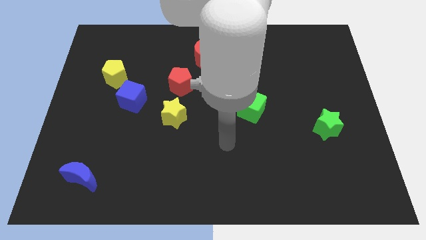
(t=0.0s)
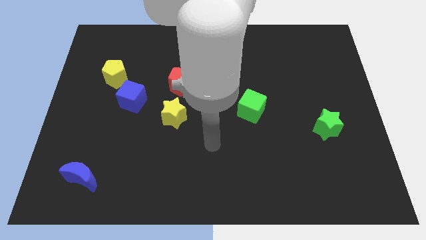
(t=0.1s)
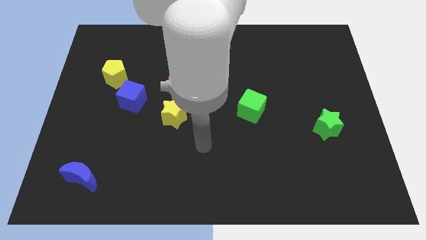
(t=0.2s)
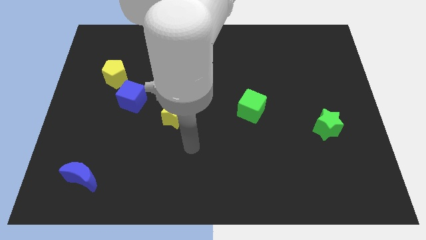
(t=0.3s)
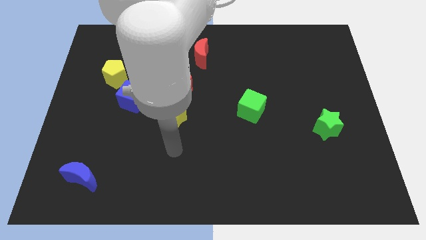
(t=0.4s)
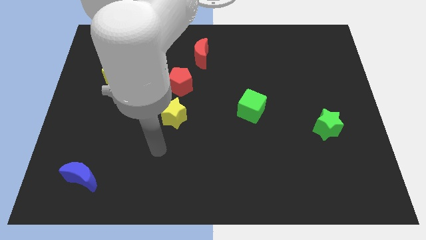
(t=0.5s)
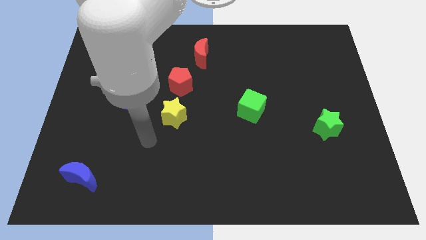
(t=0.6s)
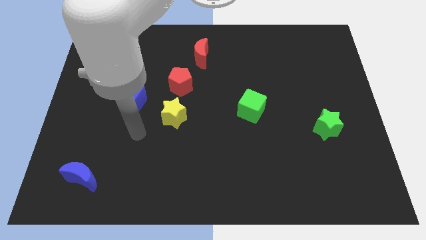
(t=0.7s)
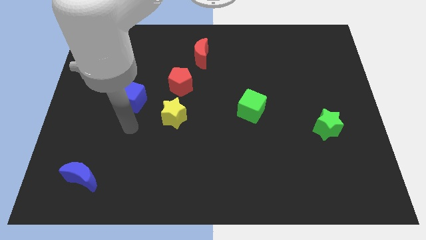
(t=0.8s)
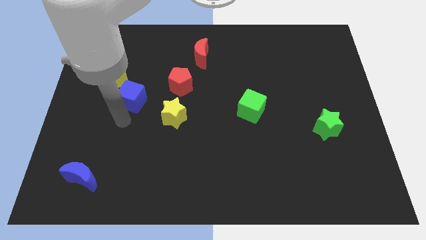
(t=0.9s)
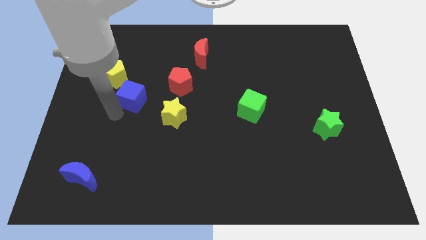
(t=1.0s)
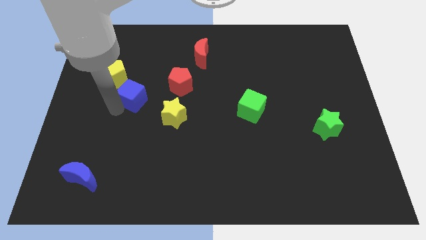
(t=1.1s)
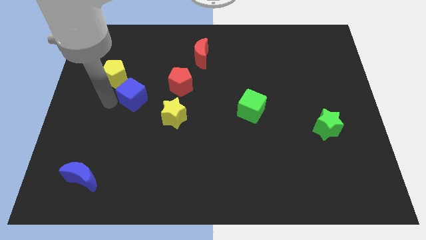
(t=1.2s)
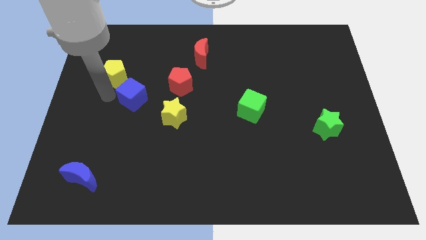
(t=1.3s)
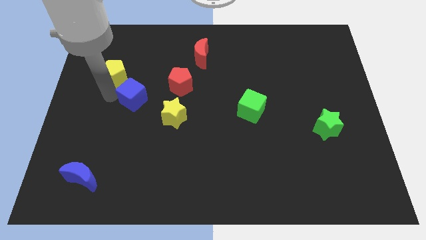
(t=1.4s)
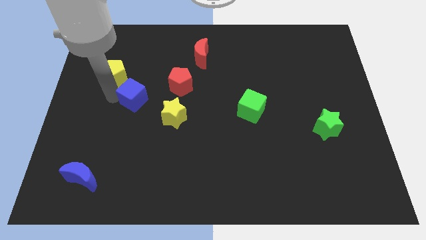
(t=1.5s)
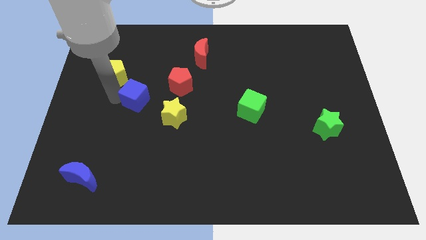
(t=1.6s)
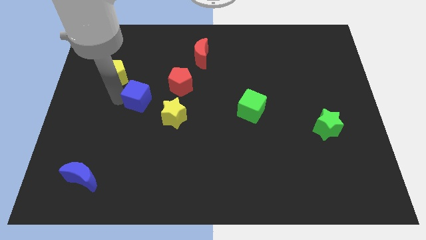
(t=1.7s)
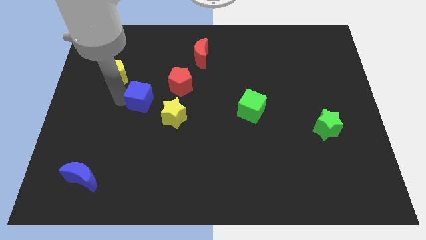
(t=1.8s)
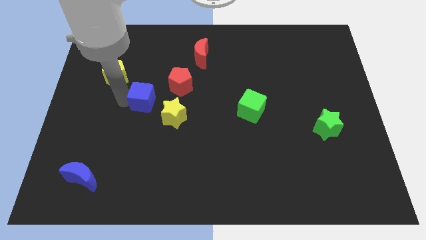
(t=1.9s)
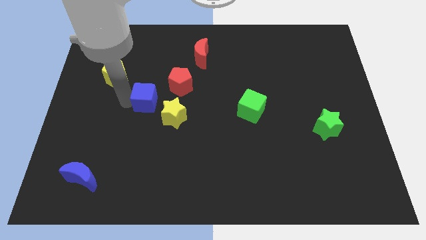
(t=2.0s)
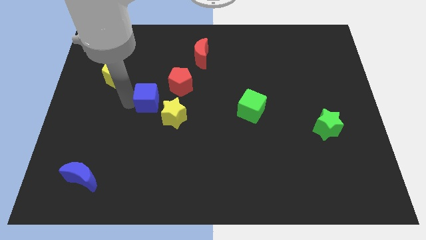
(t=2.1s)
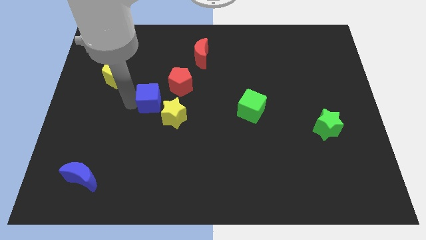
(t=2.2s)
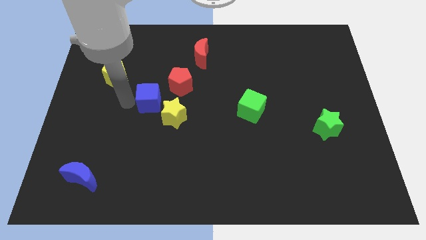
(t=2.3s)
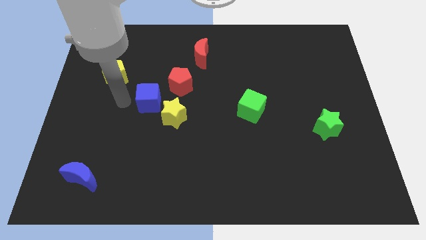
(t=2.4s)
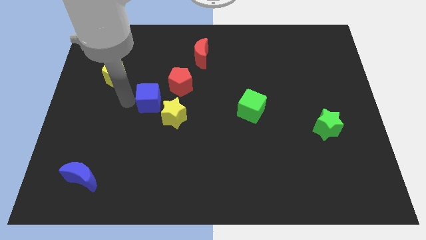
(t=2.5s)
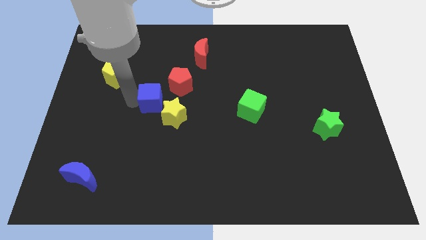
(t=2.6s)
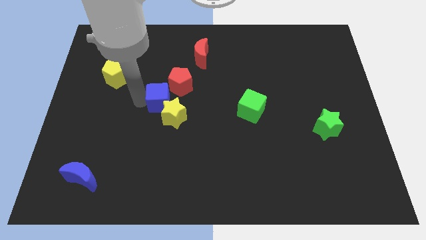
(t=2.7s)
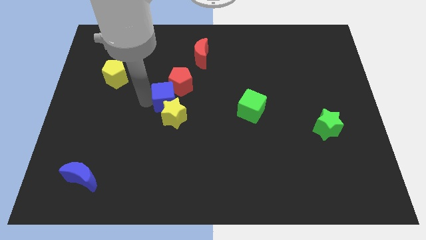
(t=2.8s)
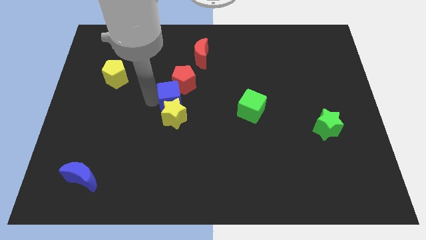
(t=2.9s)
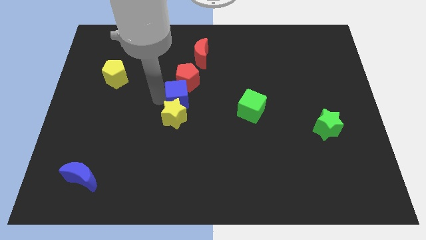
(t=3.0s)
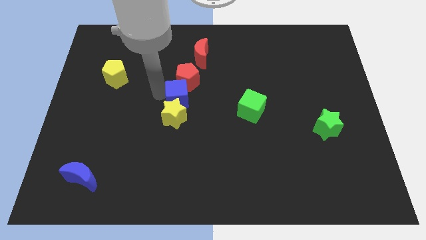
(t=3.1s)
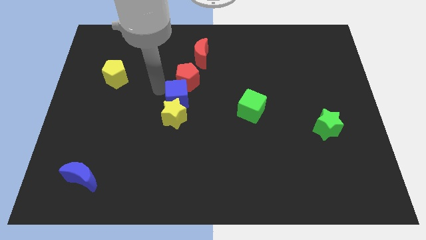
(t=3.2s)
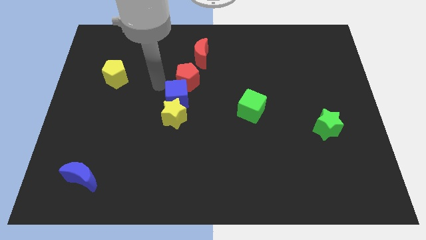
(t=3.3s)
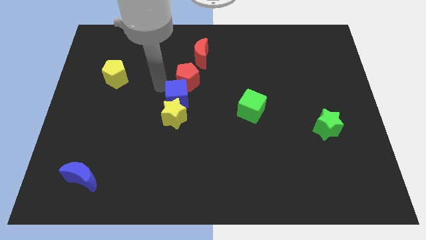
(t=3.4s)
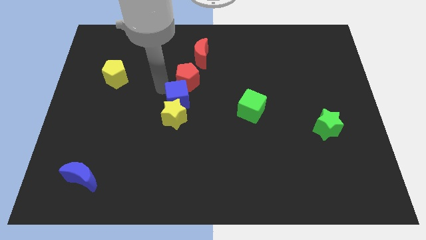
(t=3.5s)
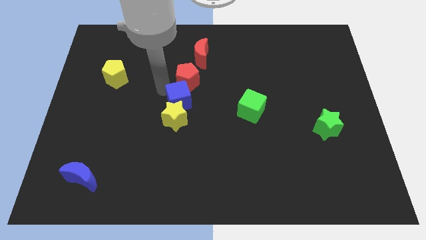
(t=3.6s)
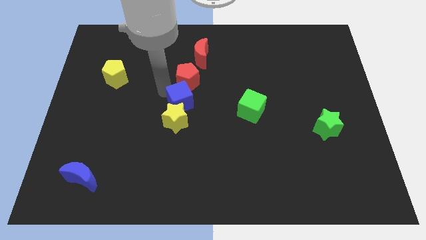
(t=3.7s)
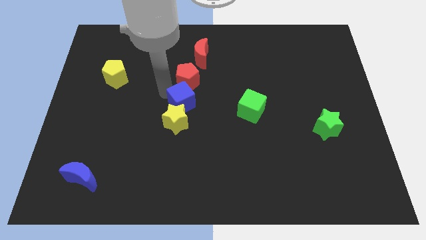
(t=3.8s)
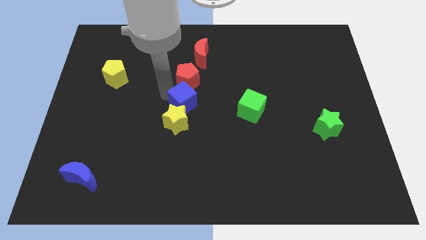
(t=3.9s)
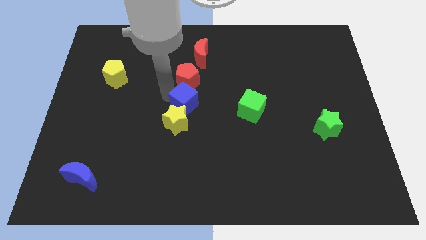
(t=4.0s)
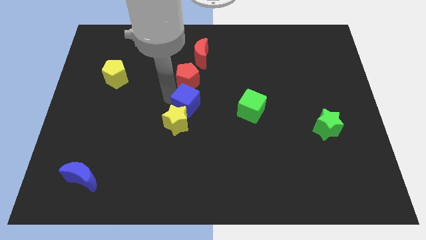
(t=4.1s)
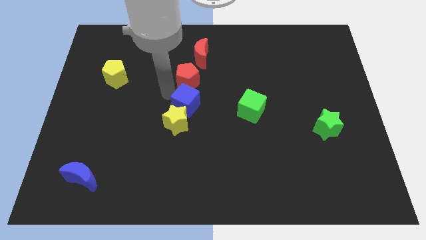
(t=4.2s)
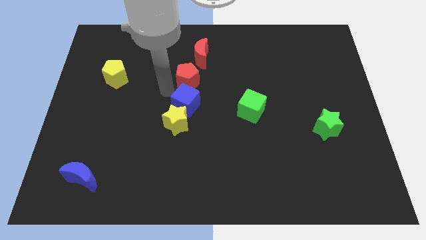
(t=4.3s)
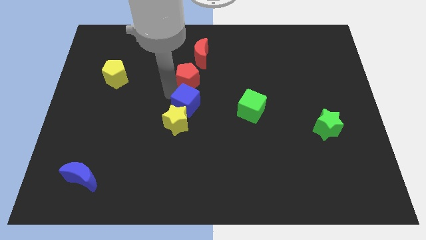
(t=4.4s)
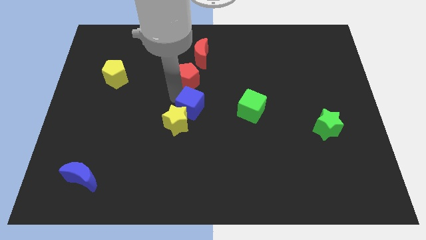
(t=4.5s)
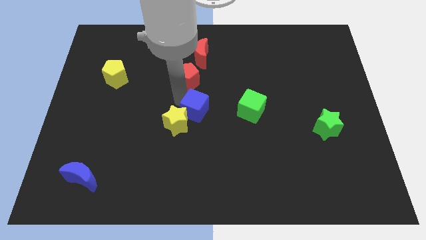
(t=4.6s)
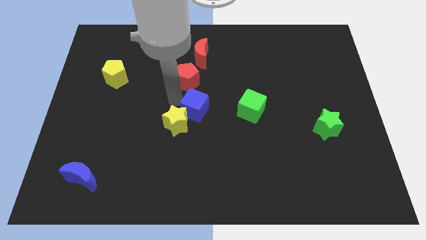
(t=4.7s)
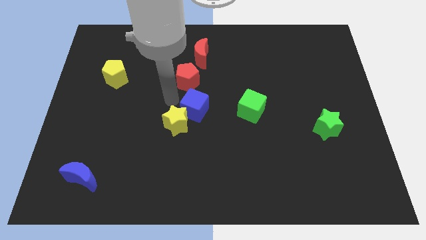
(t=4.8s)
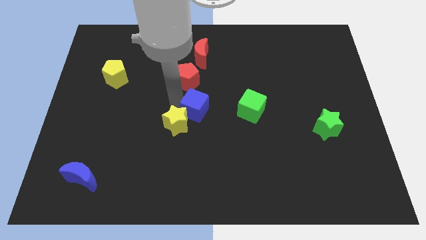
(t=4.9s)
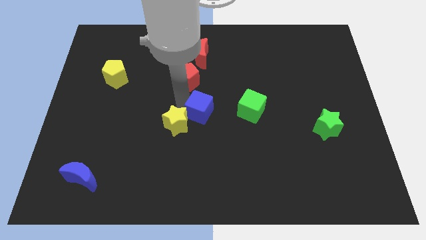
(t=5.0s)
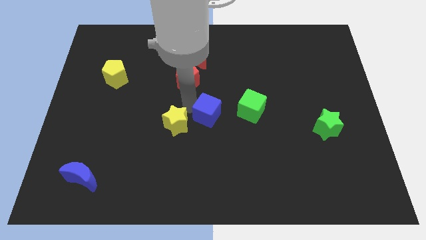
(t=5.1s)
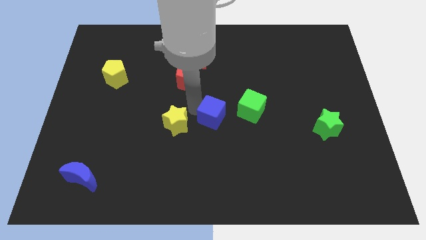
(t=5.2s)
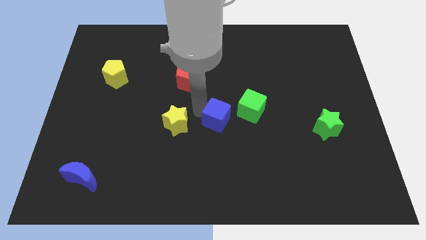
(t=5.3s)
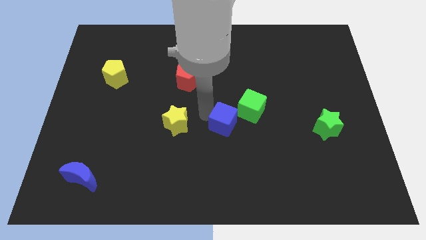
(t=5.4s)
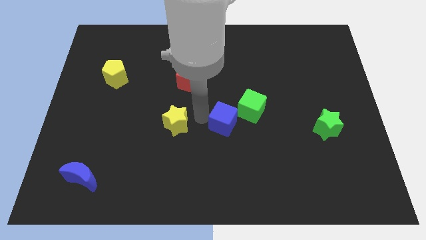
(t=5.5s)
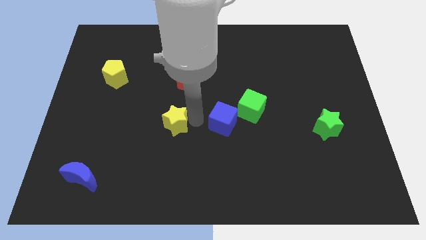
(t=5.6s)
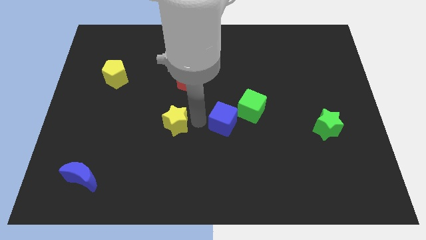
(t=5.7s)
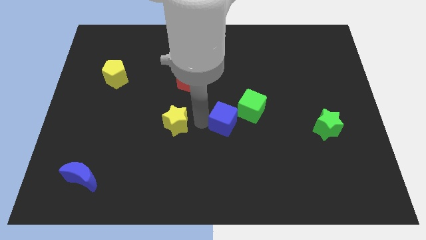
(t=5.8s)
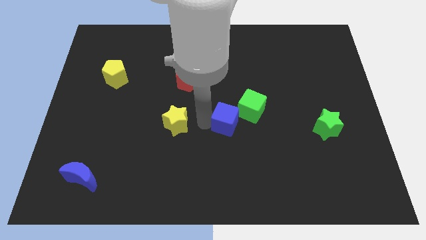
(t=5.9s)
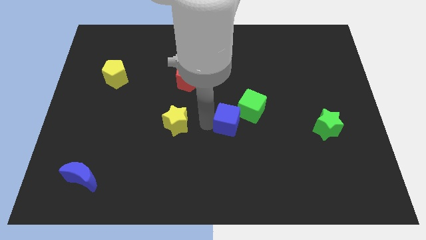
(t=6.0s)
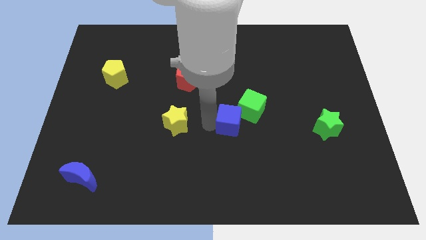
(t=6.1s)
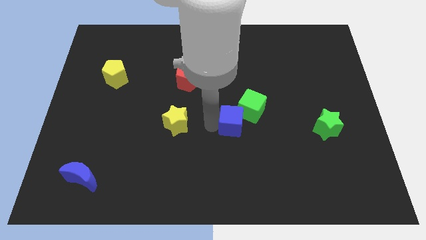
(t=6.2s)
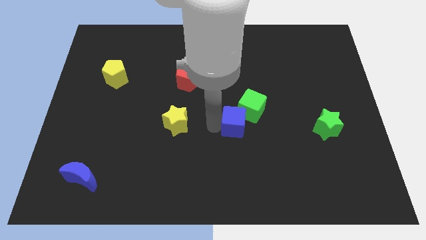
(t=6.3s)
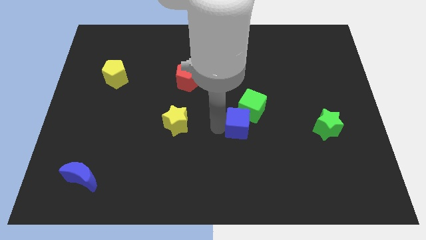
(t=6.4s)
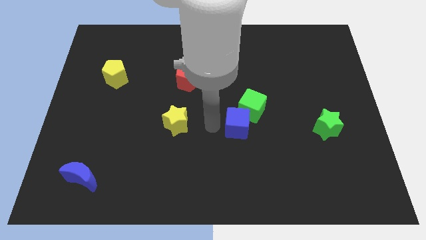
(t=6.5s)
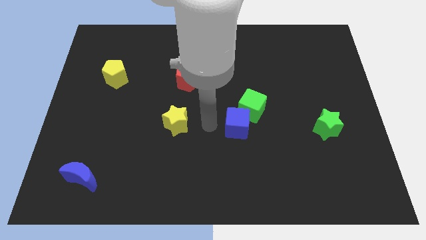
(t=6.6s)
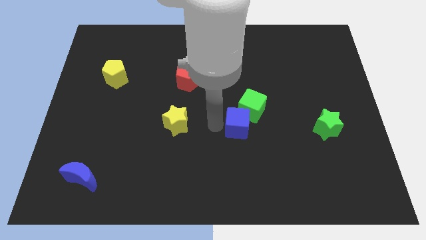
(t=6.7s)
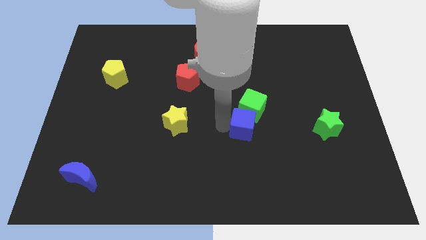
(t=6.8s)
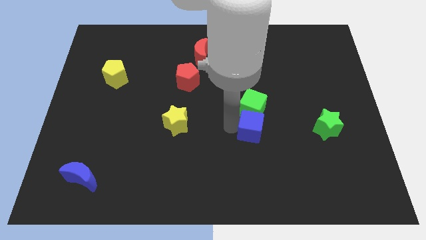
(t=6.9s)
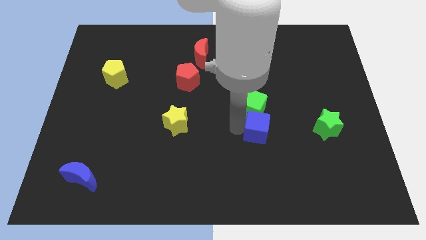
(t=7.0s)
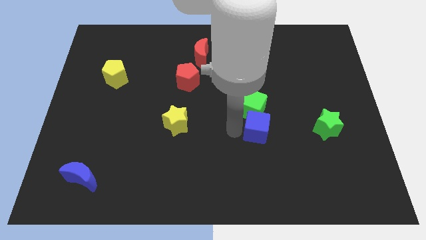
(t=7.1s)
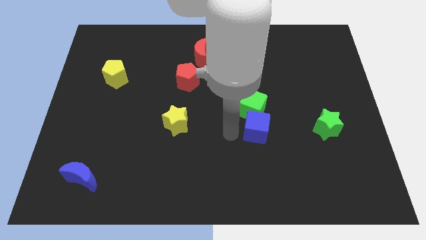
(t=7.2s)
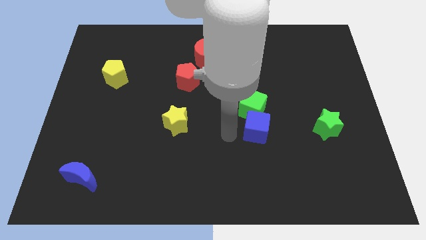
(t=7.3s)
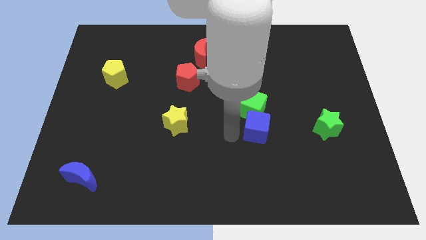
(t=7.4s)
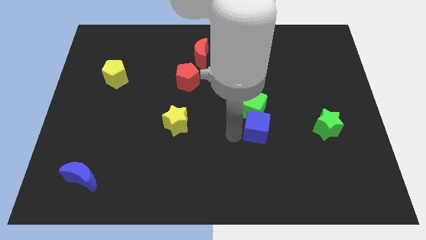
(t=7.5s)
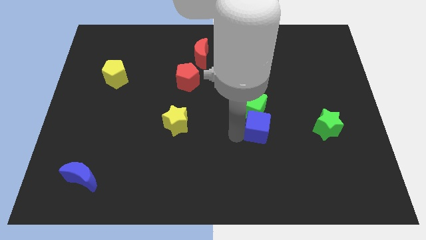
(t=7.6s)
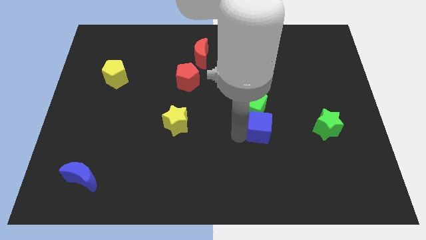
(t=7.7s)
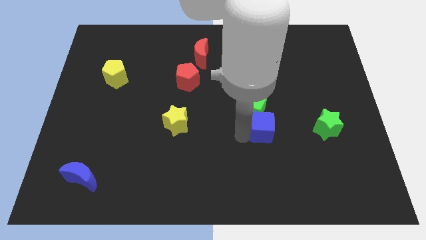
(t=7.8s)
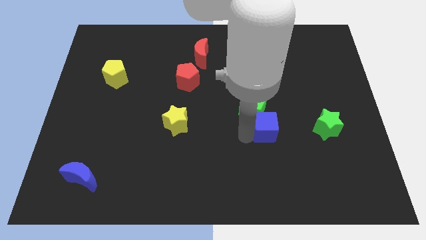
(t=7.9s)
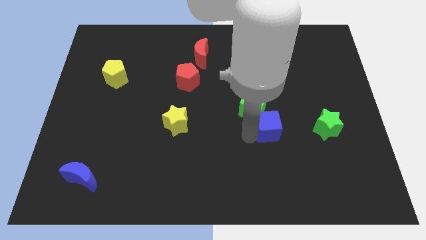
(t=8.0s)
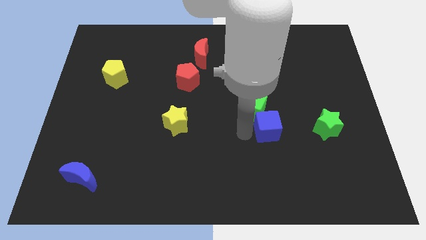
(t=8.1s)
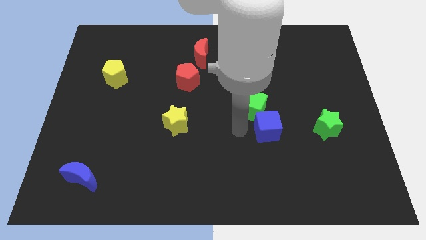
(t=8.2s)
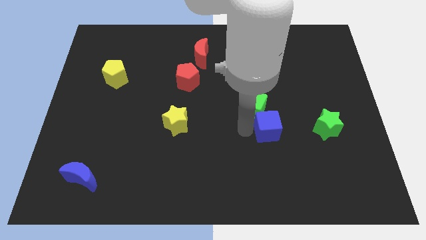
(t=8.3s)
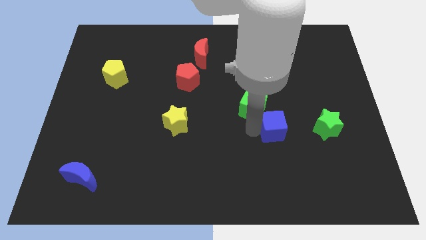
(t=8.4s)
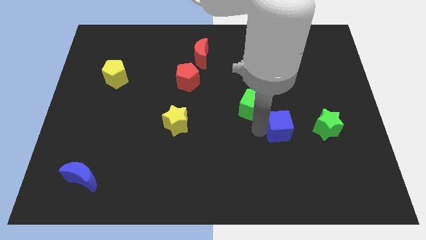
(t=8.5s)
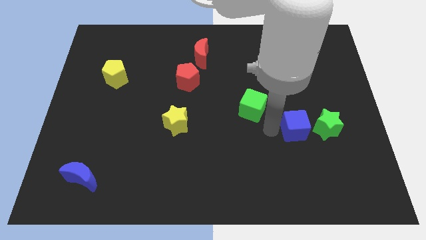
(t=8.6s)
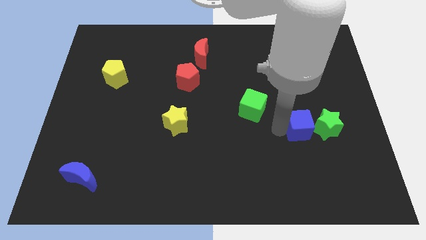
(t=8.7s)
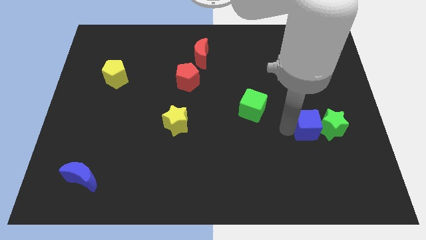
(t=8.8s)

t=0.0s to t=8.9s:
push the blue cube to the green star
